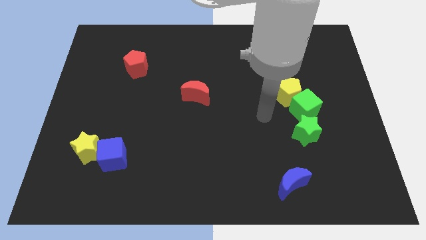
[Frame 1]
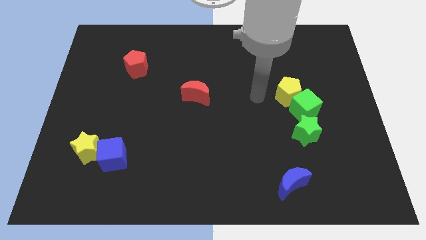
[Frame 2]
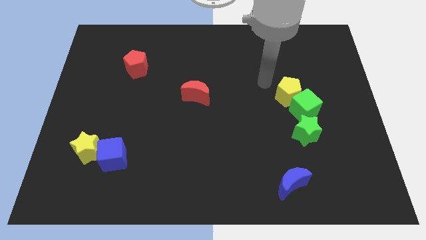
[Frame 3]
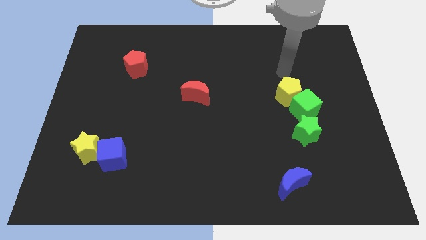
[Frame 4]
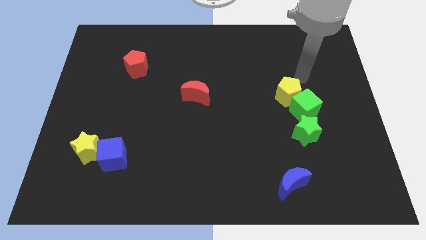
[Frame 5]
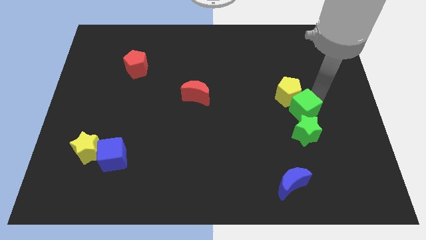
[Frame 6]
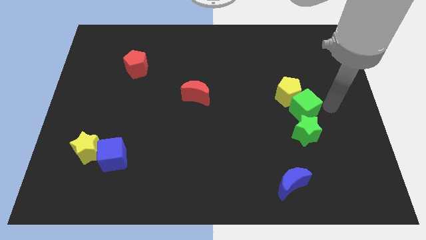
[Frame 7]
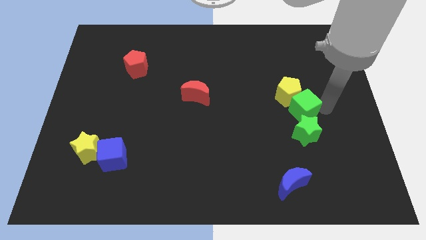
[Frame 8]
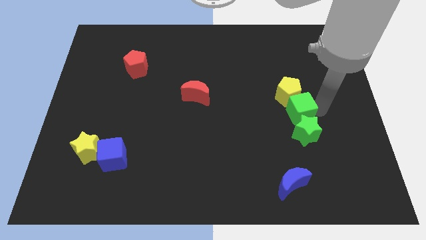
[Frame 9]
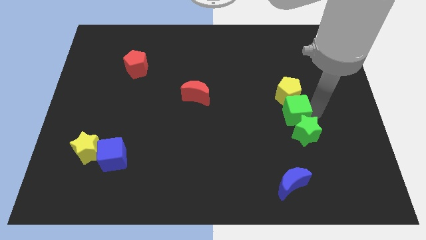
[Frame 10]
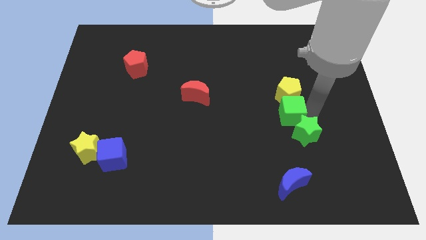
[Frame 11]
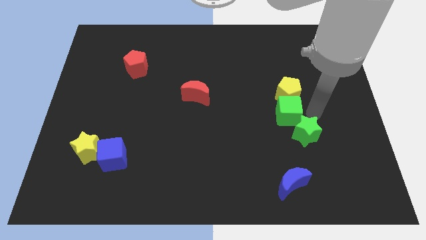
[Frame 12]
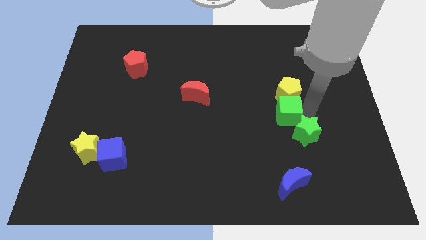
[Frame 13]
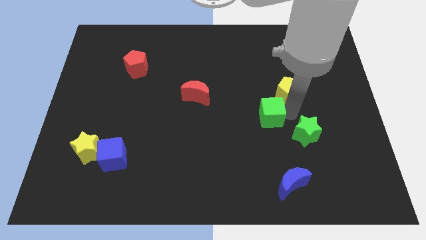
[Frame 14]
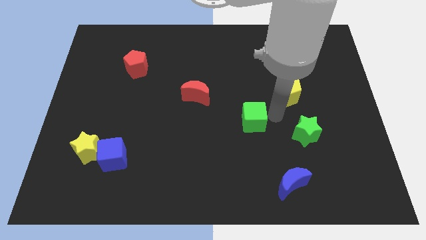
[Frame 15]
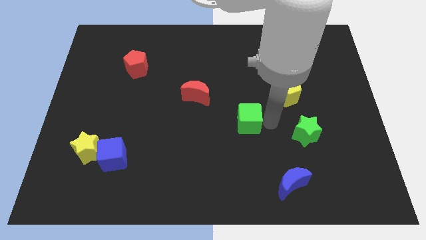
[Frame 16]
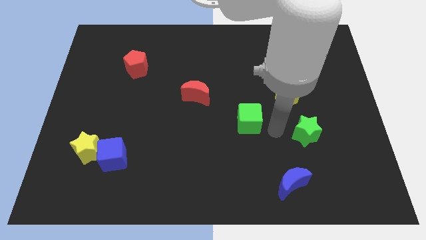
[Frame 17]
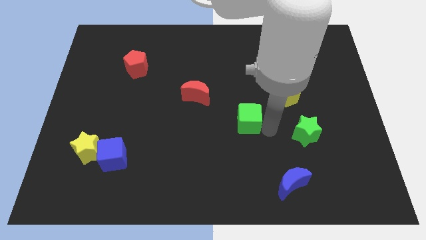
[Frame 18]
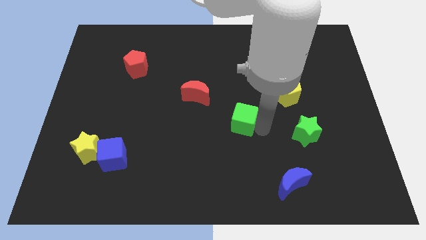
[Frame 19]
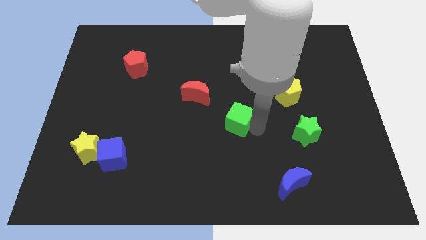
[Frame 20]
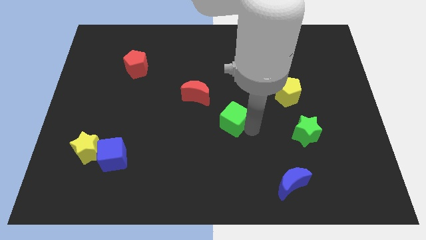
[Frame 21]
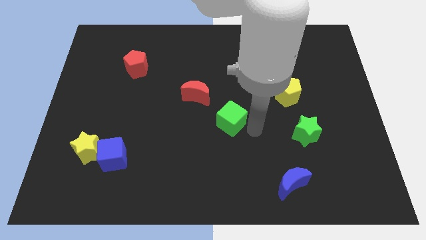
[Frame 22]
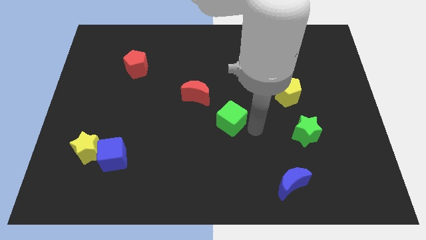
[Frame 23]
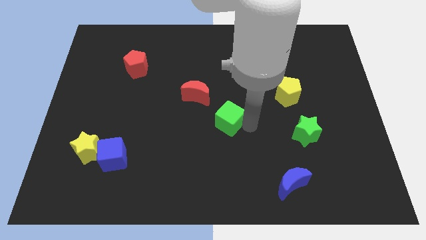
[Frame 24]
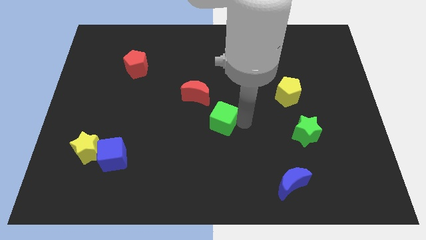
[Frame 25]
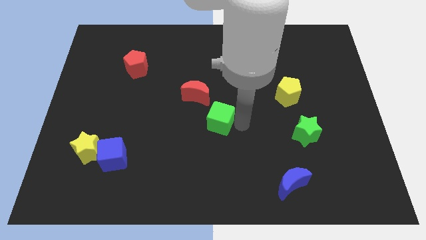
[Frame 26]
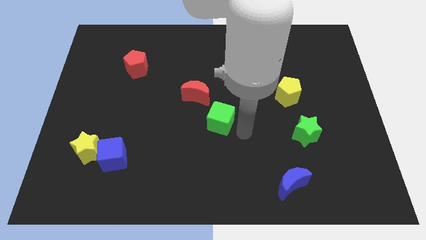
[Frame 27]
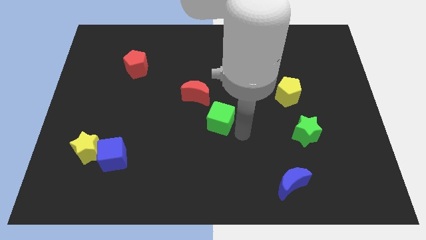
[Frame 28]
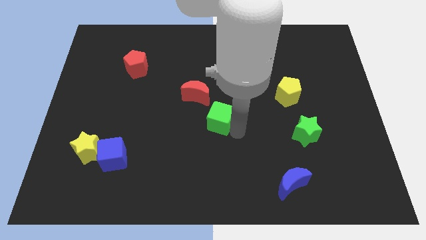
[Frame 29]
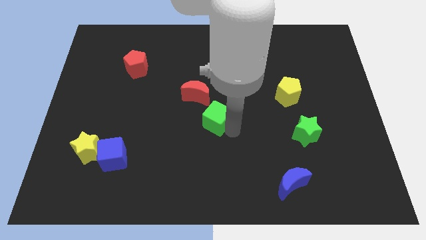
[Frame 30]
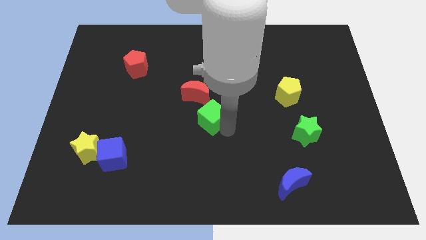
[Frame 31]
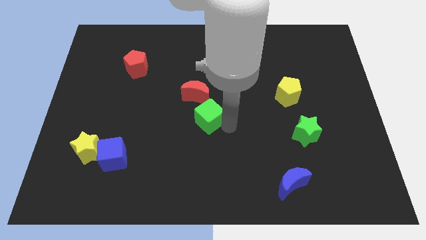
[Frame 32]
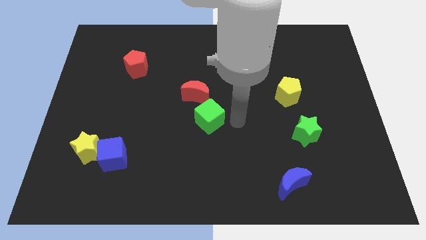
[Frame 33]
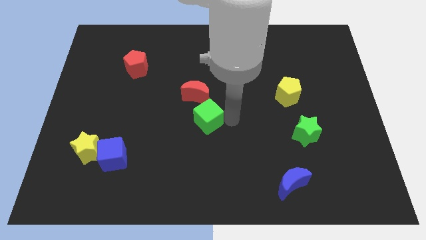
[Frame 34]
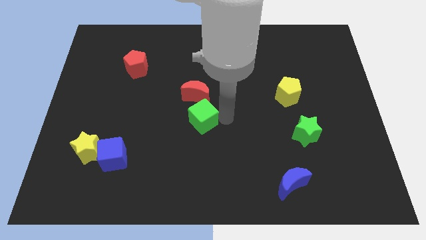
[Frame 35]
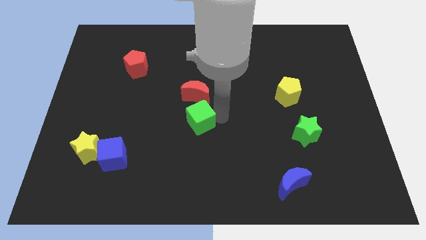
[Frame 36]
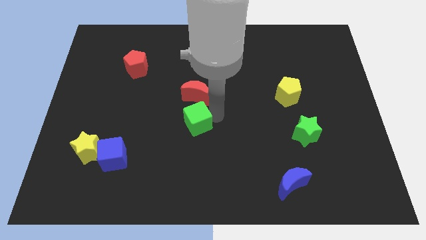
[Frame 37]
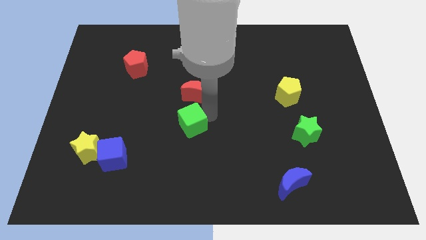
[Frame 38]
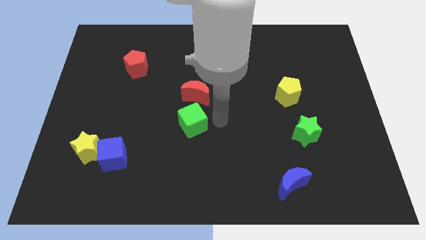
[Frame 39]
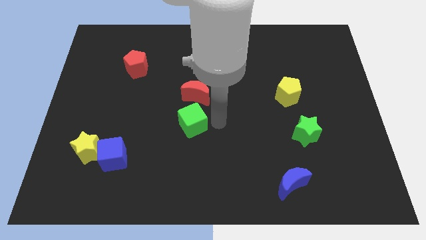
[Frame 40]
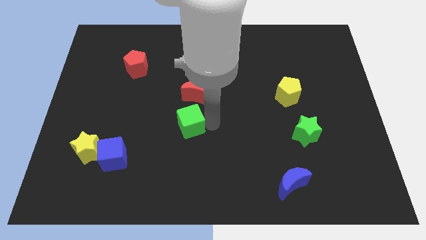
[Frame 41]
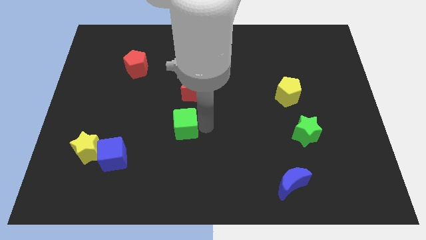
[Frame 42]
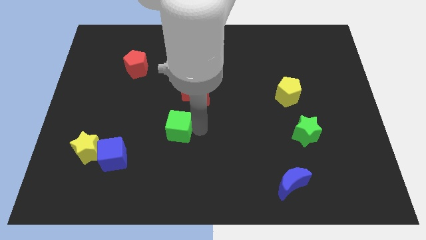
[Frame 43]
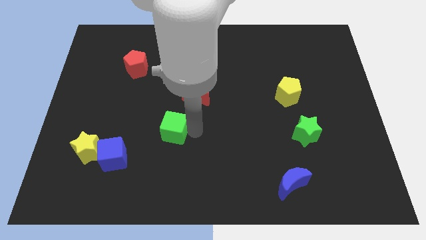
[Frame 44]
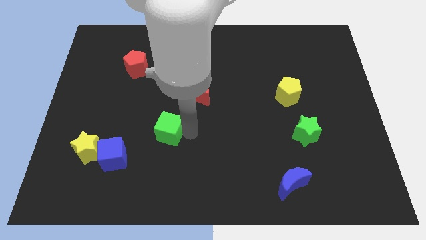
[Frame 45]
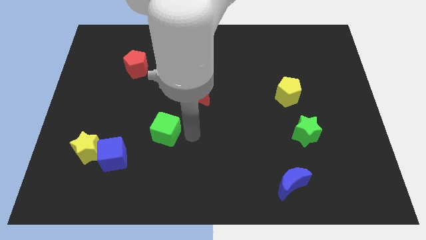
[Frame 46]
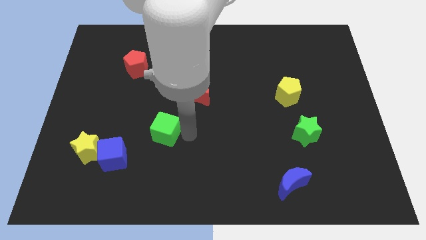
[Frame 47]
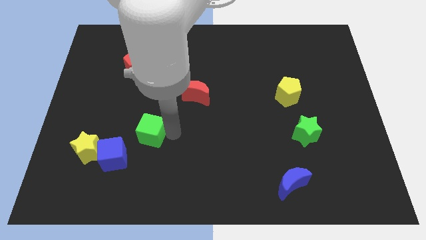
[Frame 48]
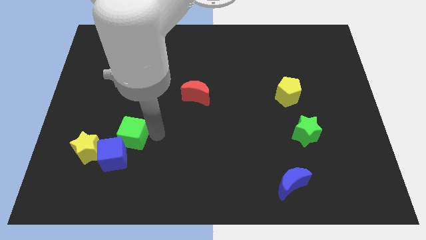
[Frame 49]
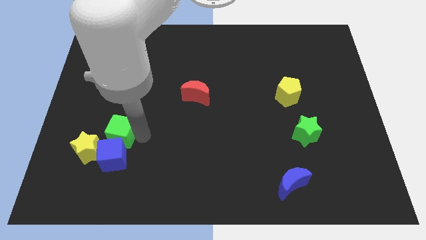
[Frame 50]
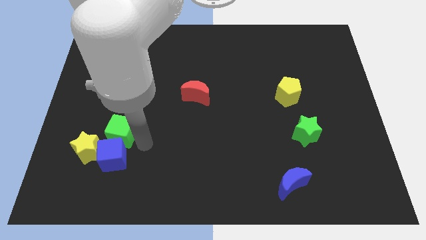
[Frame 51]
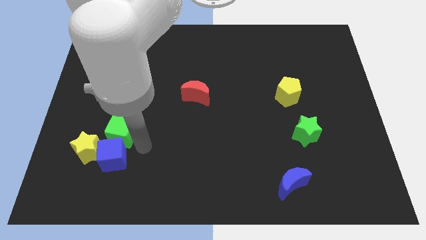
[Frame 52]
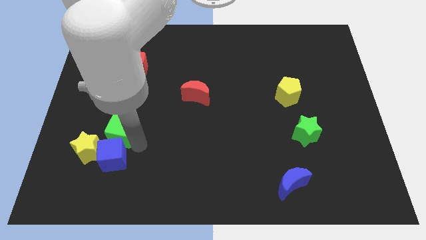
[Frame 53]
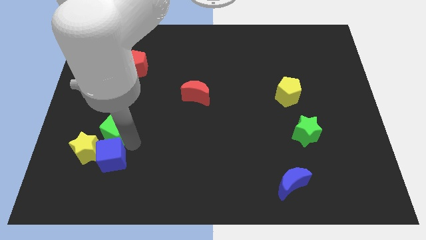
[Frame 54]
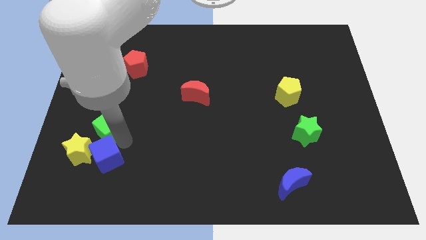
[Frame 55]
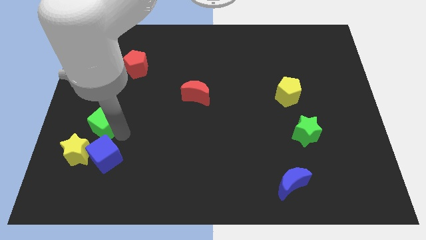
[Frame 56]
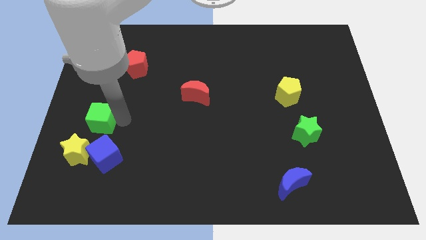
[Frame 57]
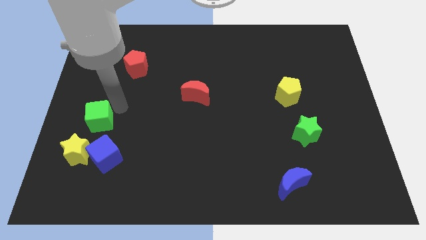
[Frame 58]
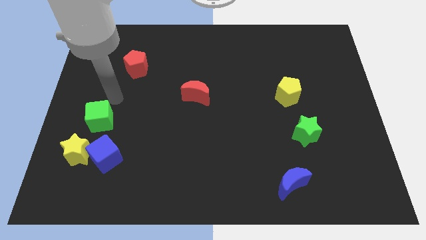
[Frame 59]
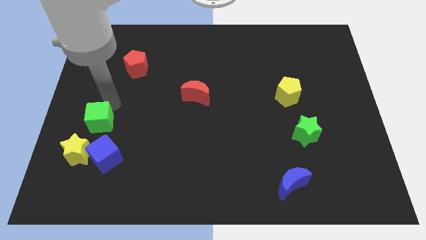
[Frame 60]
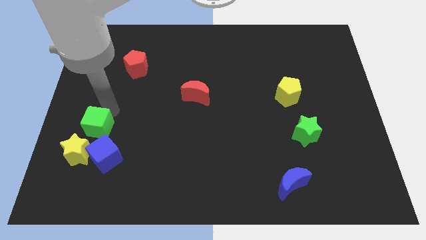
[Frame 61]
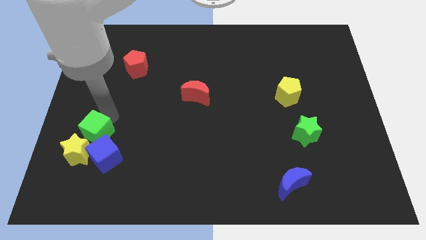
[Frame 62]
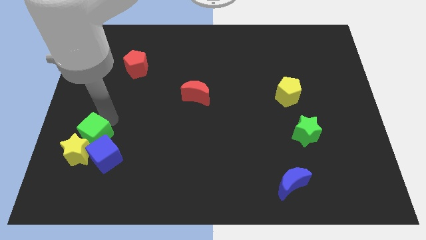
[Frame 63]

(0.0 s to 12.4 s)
slide the green cube close to the yellow star

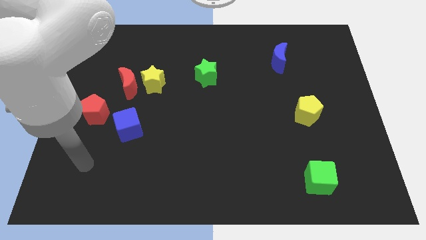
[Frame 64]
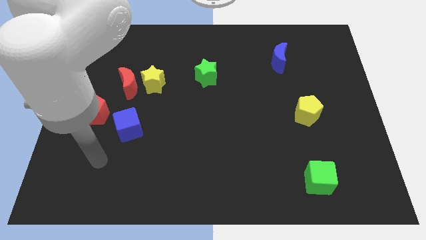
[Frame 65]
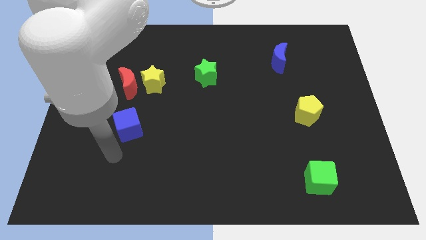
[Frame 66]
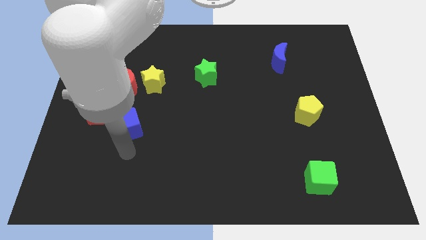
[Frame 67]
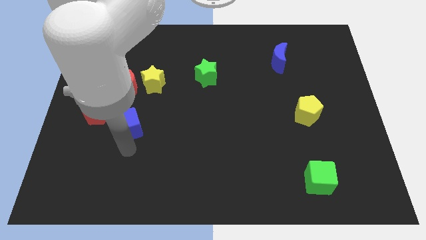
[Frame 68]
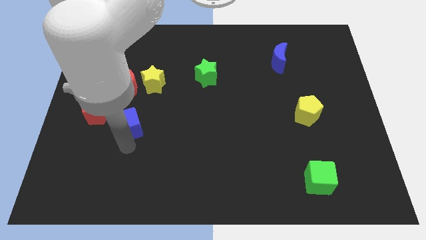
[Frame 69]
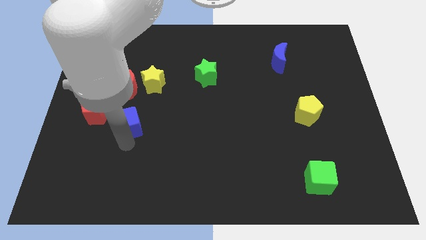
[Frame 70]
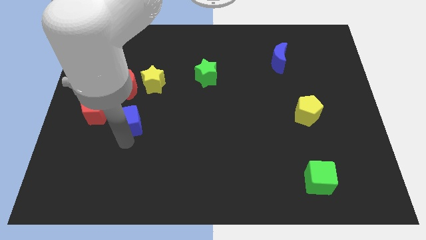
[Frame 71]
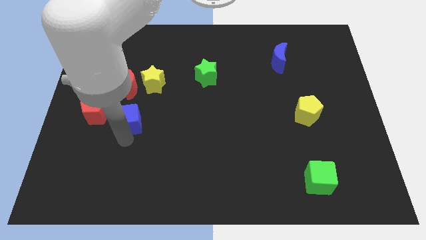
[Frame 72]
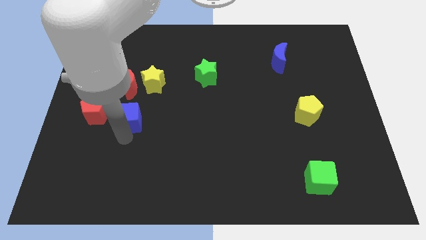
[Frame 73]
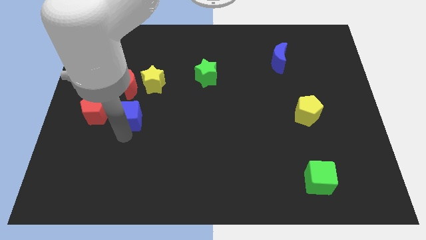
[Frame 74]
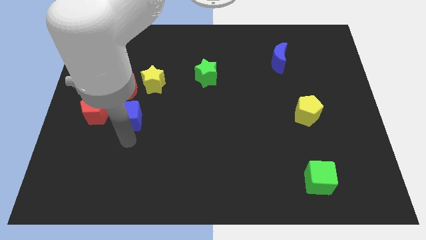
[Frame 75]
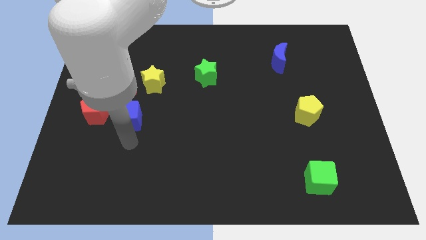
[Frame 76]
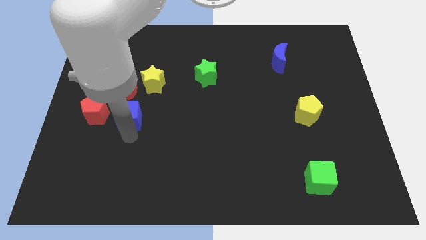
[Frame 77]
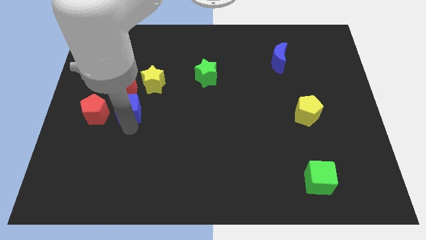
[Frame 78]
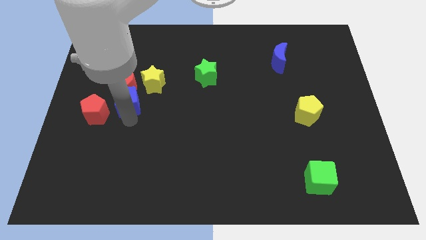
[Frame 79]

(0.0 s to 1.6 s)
push the blue cube next to the red moon
